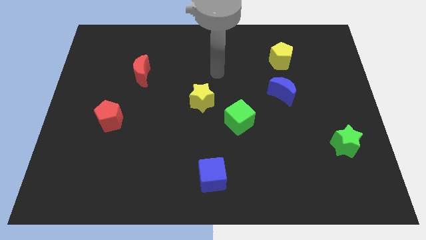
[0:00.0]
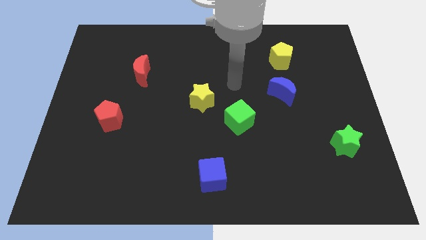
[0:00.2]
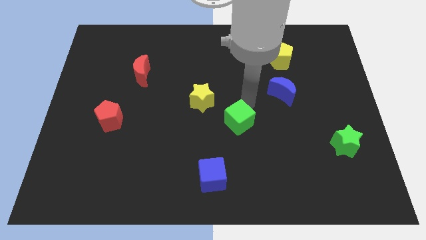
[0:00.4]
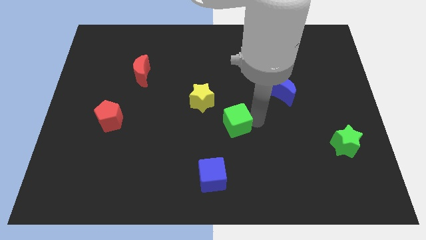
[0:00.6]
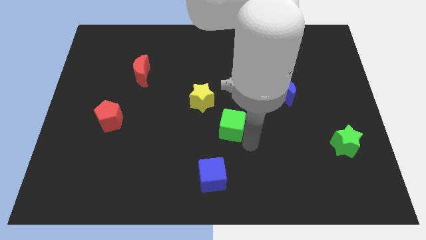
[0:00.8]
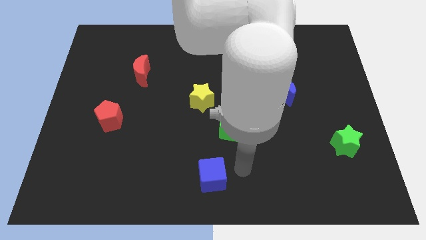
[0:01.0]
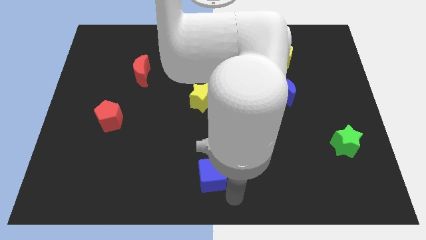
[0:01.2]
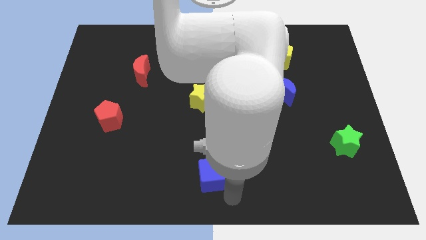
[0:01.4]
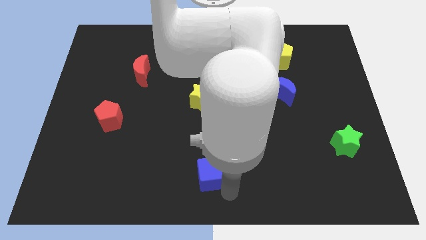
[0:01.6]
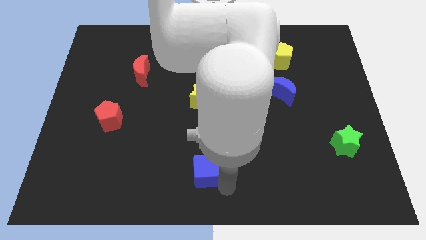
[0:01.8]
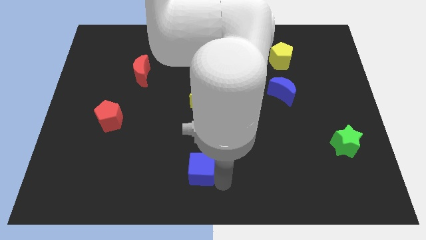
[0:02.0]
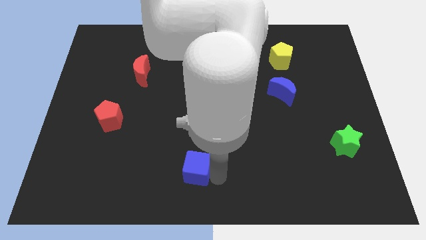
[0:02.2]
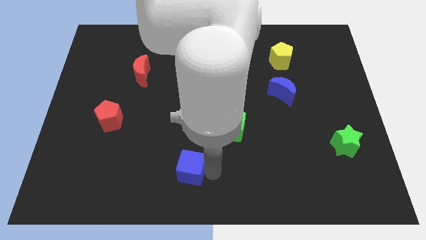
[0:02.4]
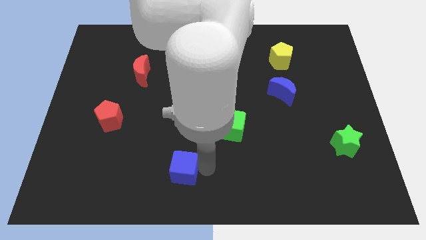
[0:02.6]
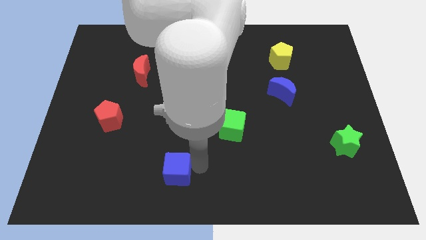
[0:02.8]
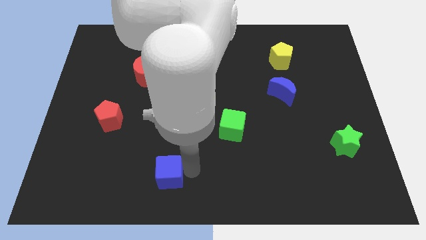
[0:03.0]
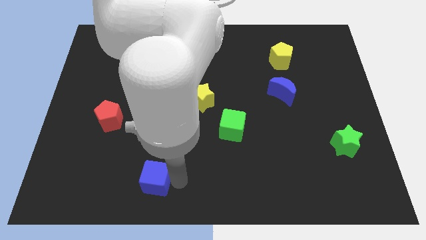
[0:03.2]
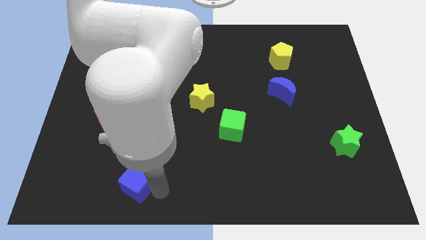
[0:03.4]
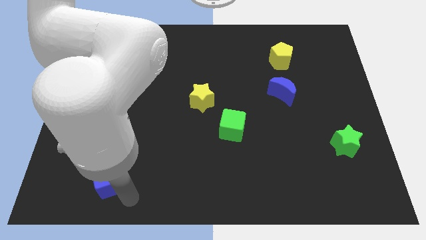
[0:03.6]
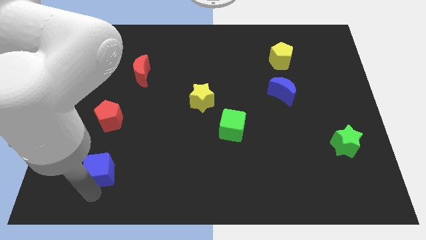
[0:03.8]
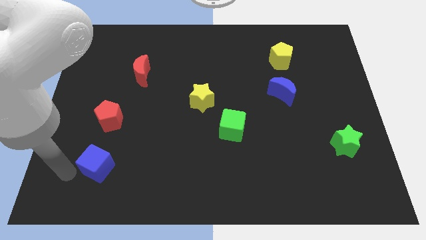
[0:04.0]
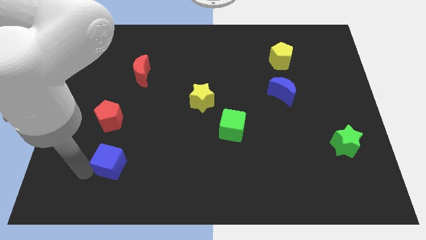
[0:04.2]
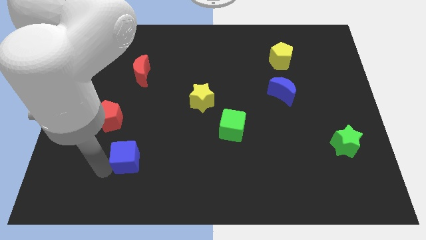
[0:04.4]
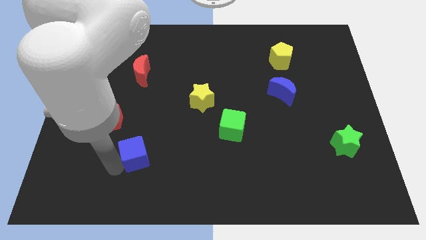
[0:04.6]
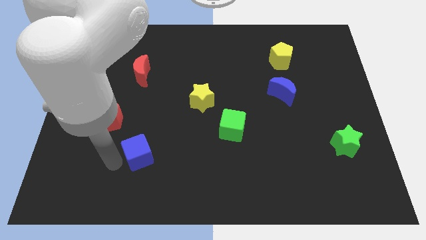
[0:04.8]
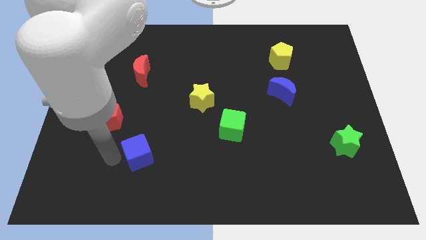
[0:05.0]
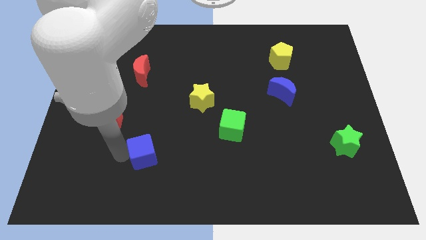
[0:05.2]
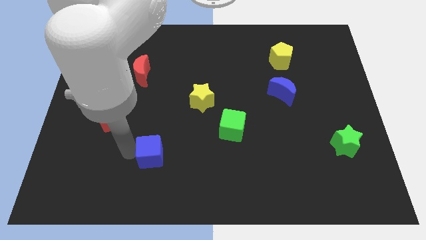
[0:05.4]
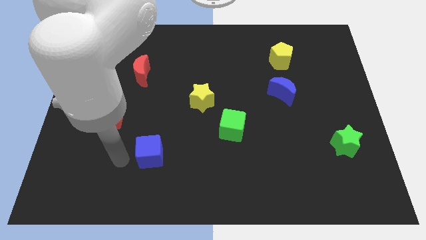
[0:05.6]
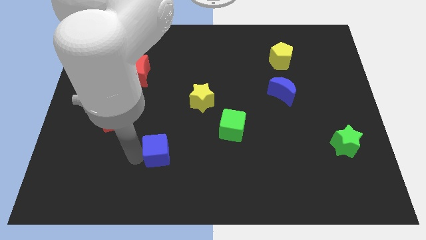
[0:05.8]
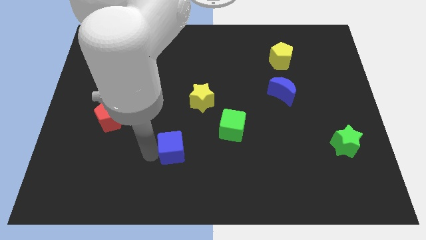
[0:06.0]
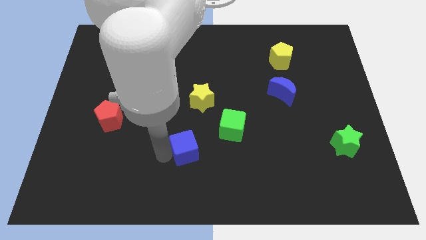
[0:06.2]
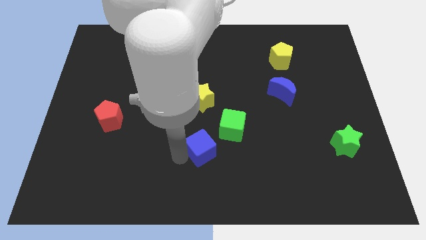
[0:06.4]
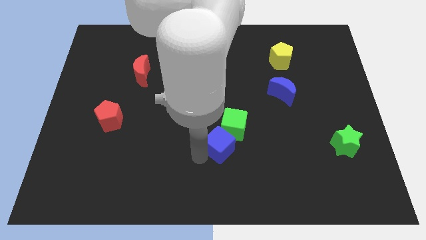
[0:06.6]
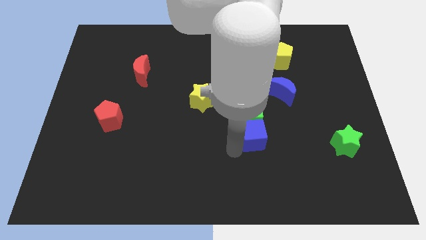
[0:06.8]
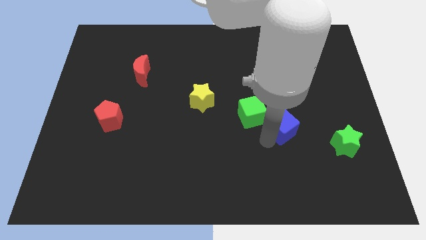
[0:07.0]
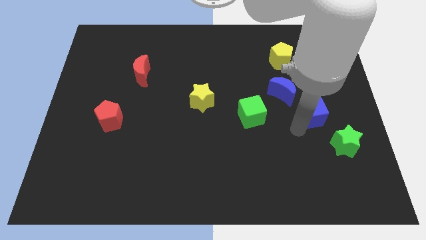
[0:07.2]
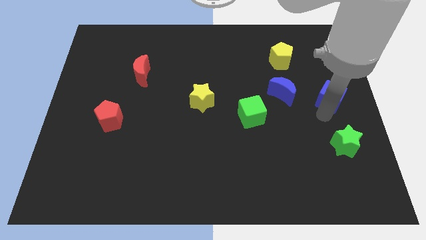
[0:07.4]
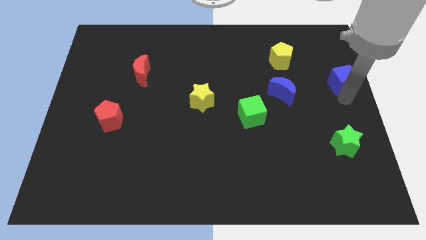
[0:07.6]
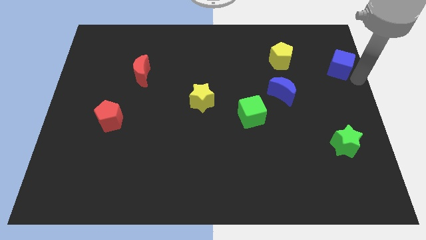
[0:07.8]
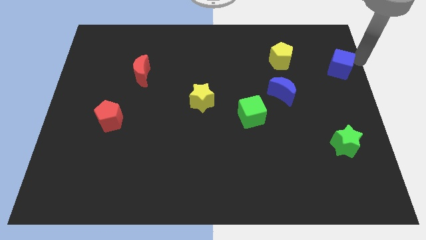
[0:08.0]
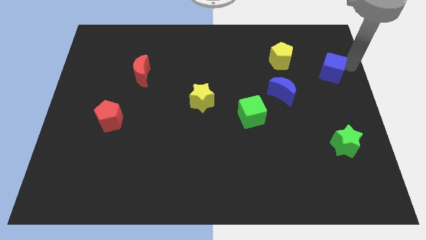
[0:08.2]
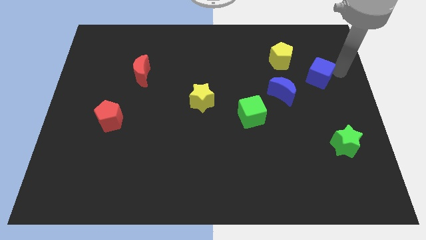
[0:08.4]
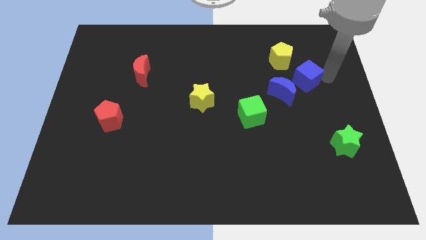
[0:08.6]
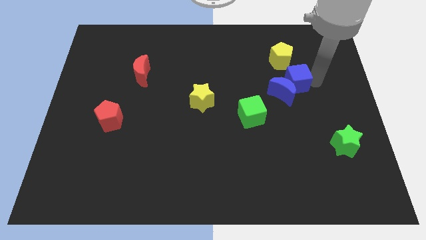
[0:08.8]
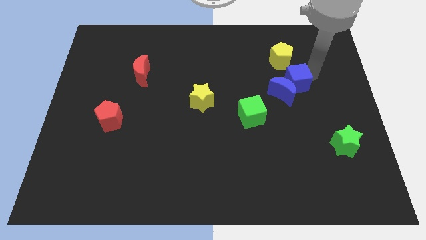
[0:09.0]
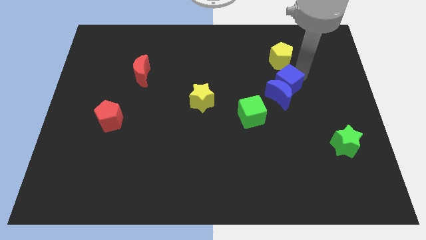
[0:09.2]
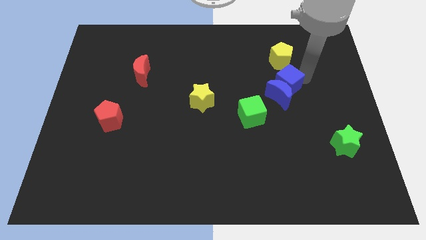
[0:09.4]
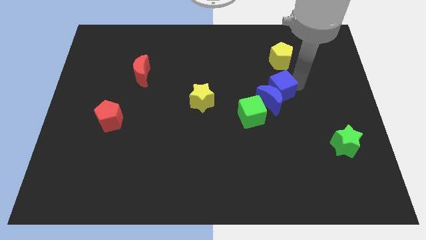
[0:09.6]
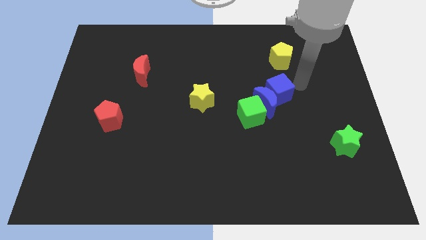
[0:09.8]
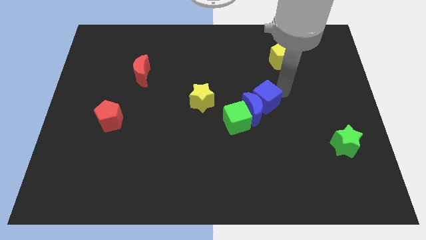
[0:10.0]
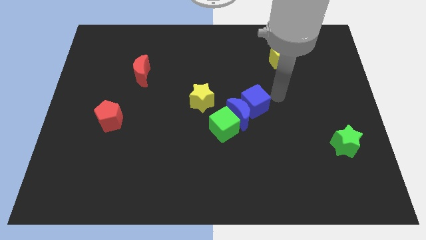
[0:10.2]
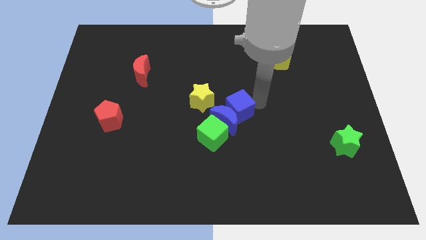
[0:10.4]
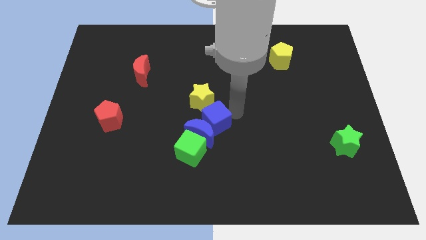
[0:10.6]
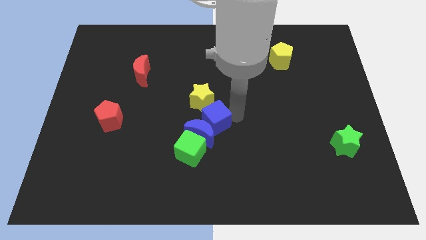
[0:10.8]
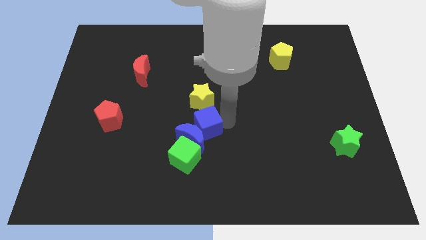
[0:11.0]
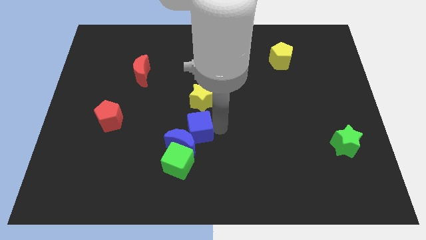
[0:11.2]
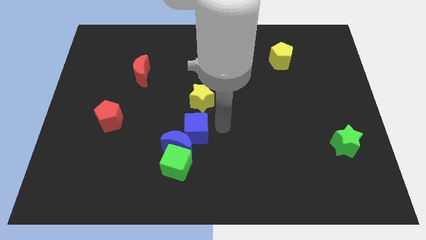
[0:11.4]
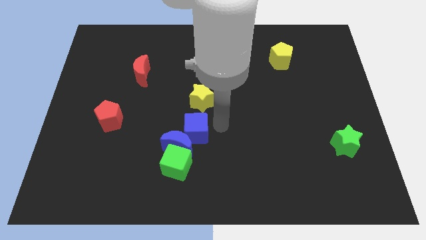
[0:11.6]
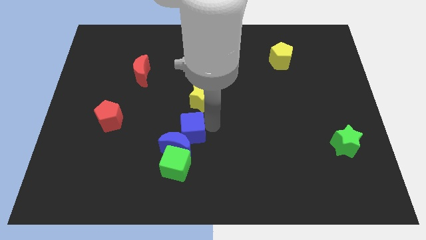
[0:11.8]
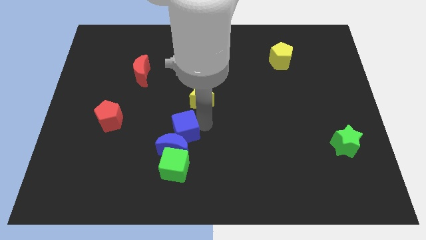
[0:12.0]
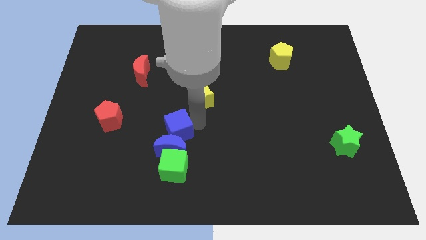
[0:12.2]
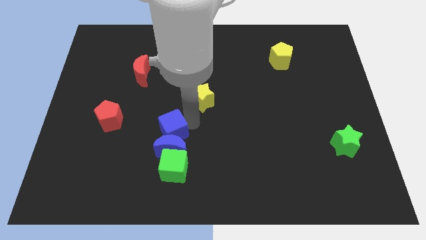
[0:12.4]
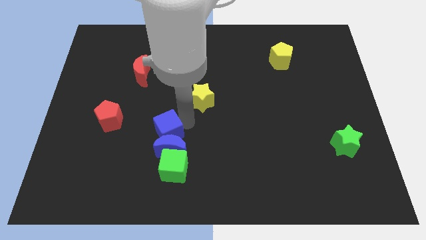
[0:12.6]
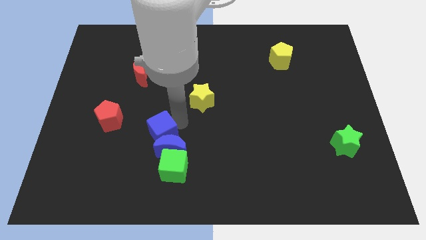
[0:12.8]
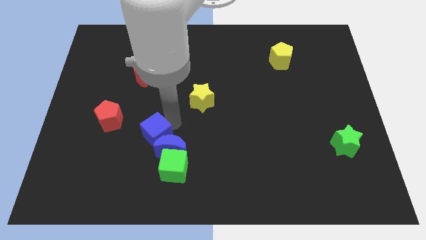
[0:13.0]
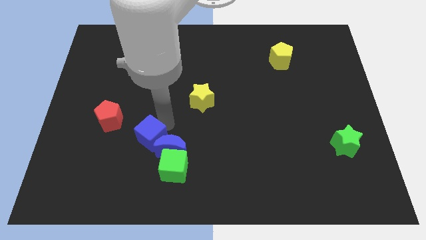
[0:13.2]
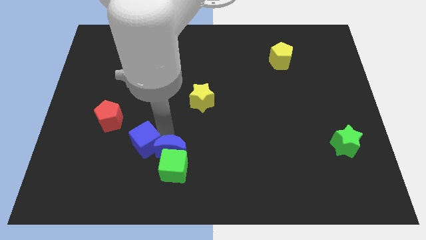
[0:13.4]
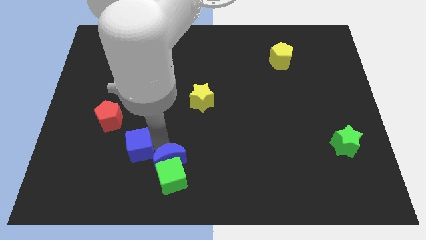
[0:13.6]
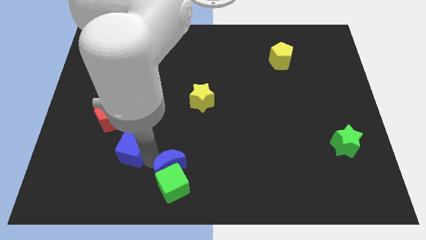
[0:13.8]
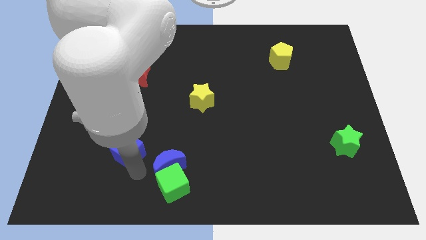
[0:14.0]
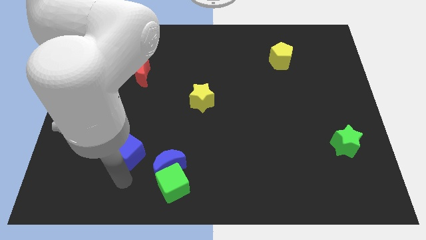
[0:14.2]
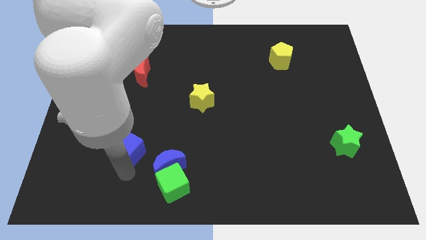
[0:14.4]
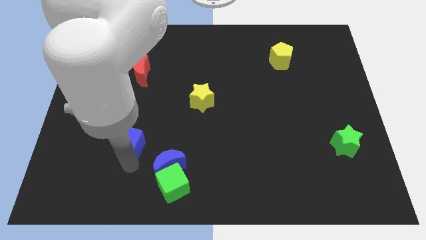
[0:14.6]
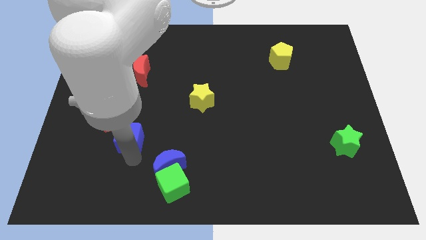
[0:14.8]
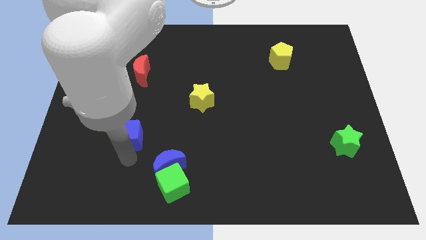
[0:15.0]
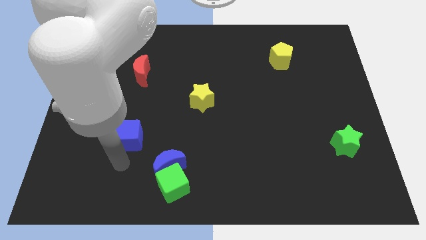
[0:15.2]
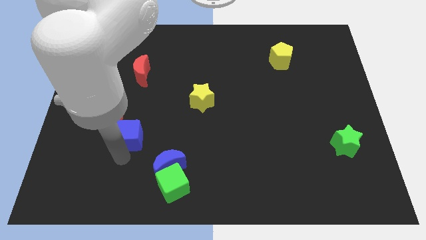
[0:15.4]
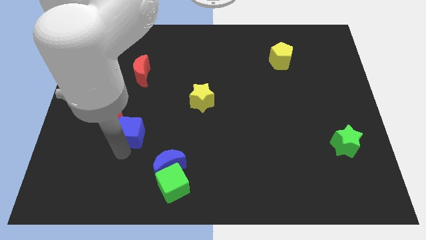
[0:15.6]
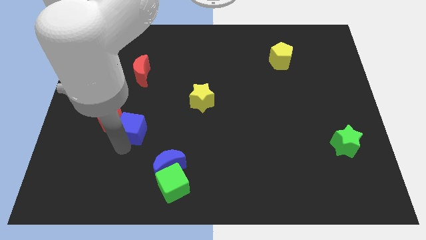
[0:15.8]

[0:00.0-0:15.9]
move the blue cube upwards and then left

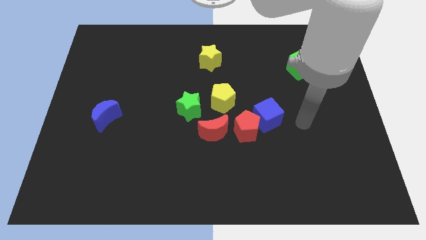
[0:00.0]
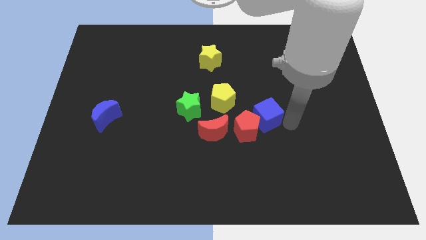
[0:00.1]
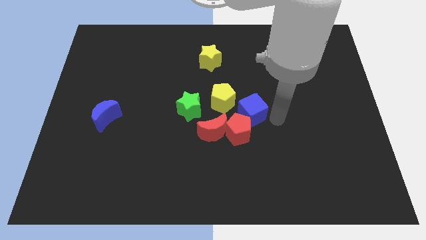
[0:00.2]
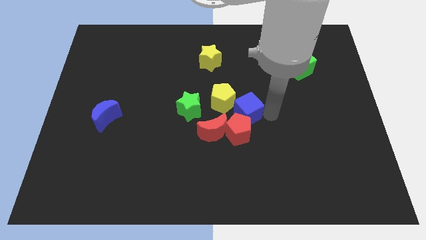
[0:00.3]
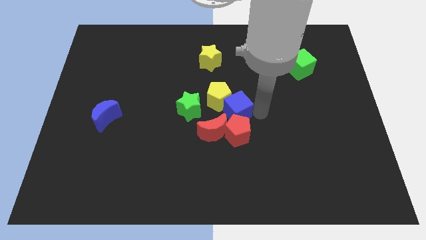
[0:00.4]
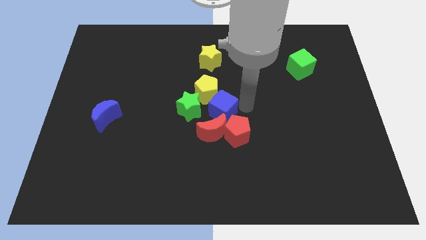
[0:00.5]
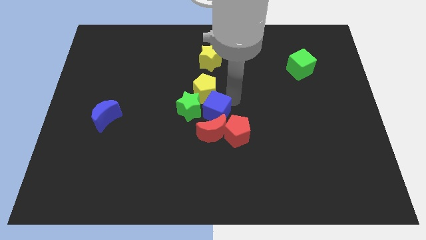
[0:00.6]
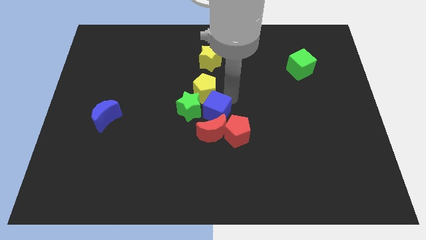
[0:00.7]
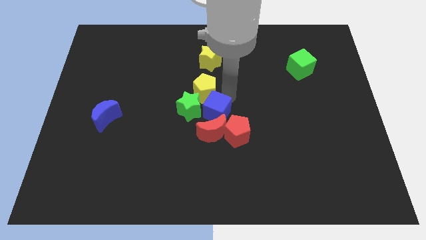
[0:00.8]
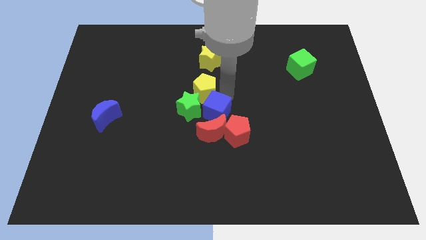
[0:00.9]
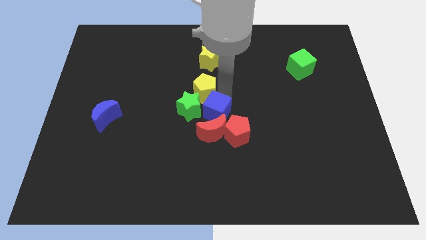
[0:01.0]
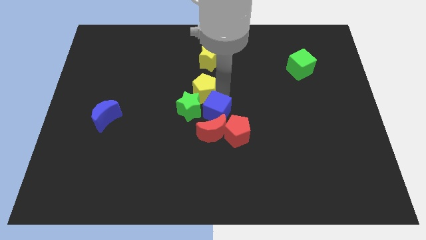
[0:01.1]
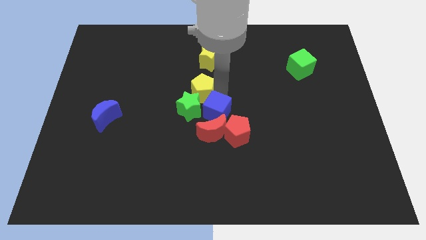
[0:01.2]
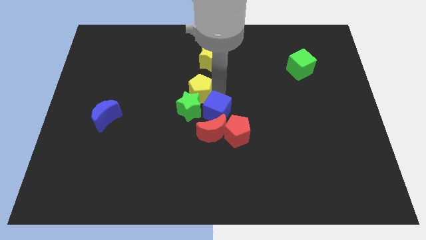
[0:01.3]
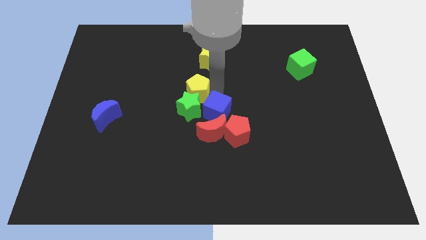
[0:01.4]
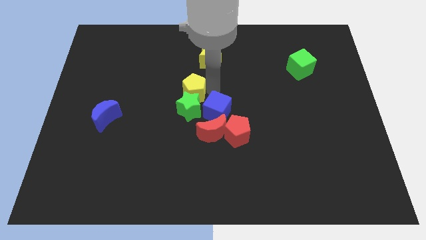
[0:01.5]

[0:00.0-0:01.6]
slightly move the yellow pentagon diagonally upwards and left
